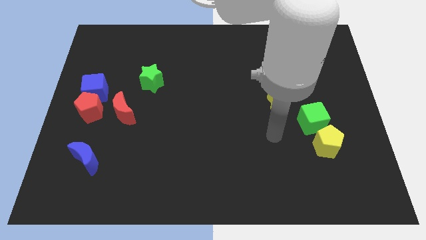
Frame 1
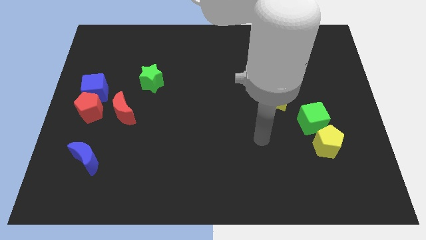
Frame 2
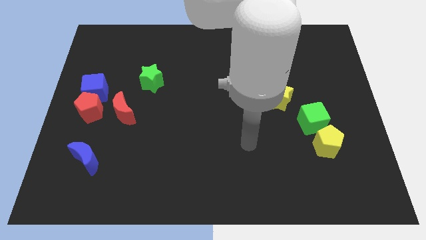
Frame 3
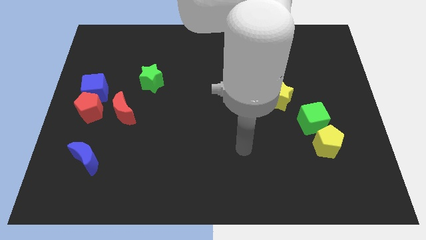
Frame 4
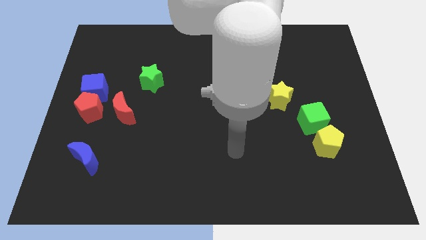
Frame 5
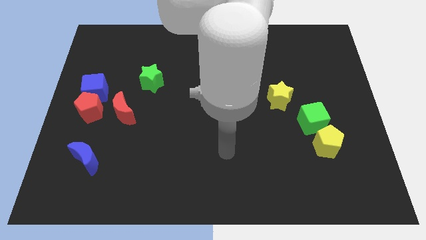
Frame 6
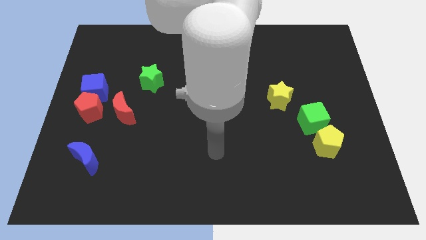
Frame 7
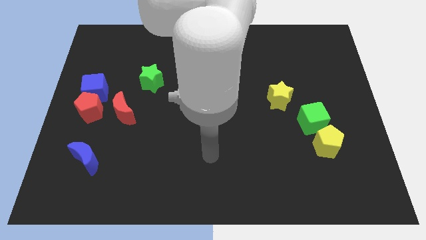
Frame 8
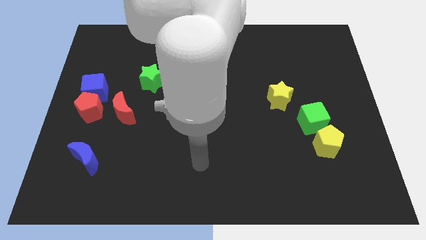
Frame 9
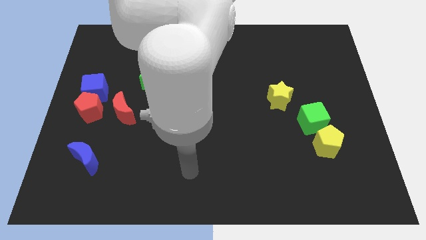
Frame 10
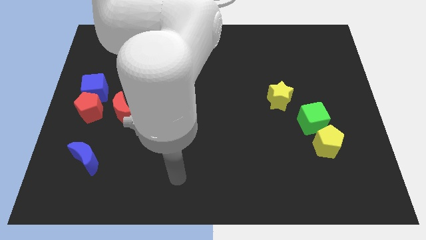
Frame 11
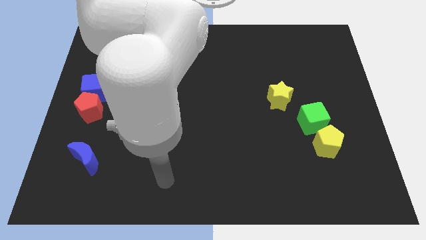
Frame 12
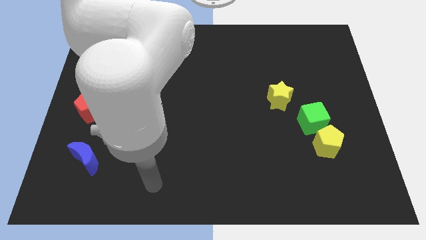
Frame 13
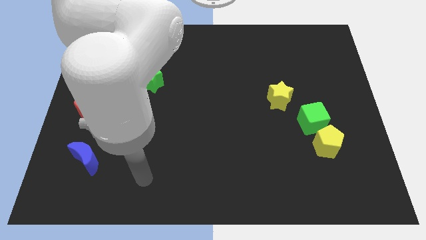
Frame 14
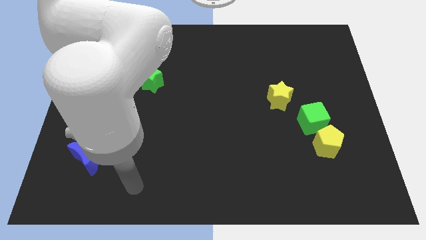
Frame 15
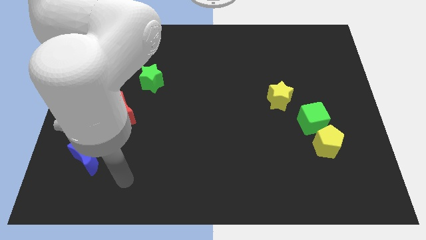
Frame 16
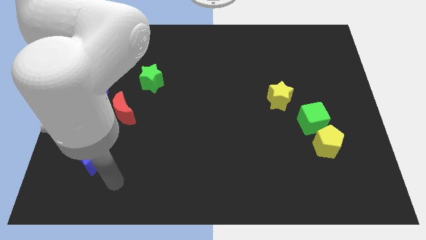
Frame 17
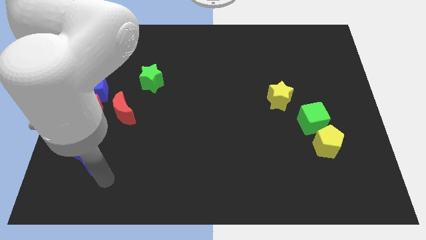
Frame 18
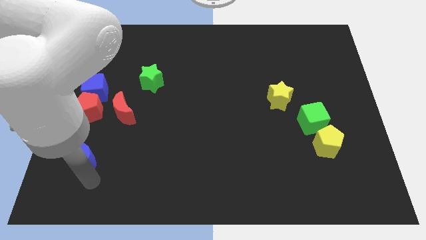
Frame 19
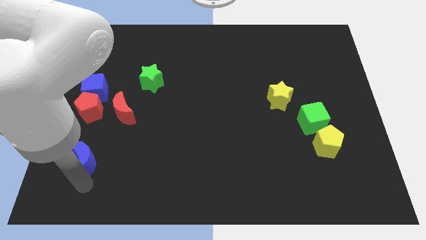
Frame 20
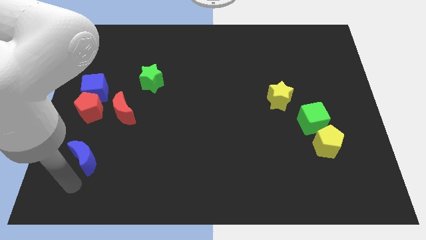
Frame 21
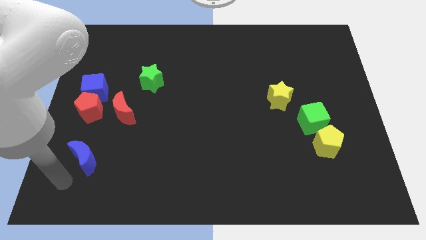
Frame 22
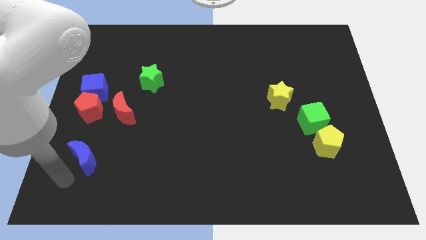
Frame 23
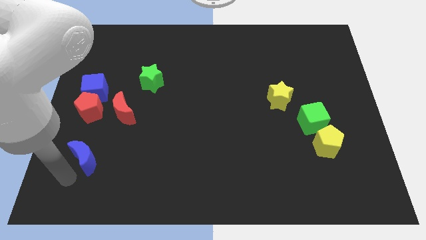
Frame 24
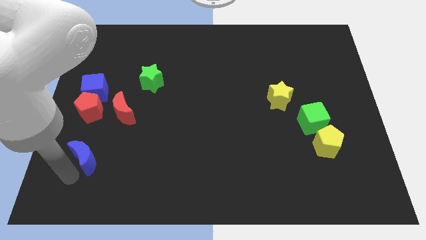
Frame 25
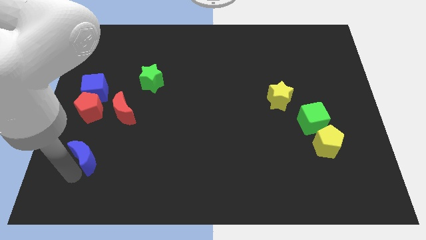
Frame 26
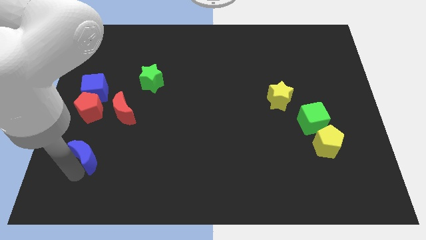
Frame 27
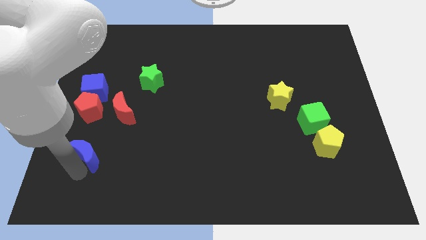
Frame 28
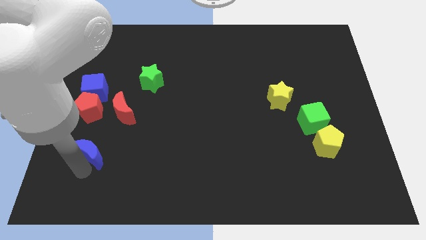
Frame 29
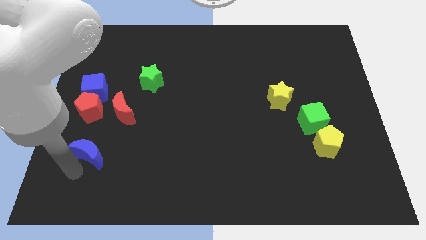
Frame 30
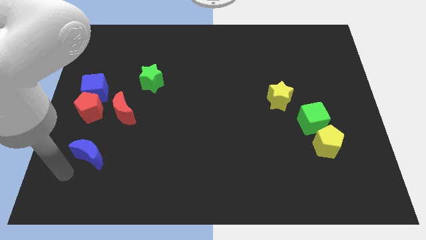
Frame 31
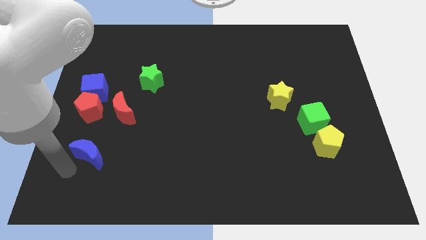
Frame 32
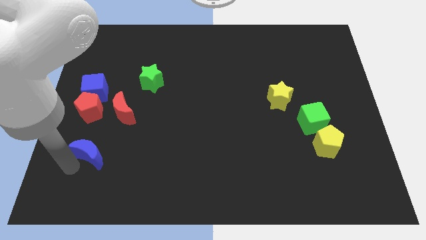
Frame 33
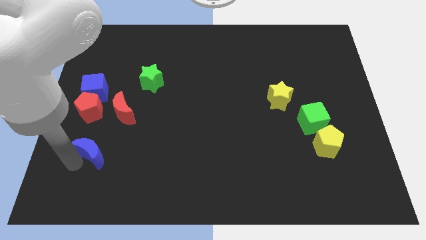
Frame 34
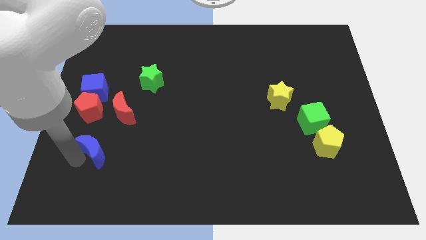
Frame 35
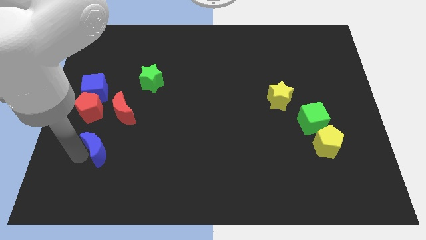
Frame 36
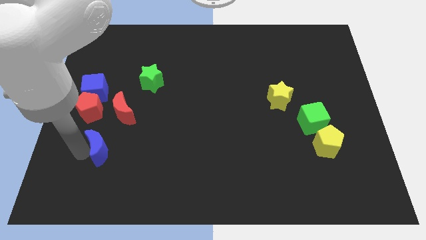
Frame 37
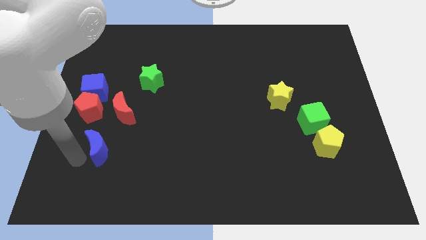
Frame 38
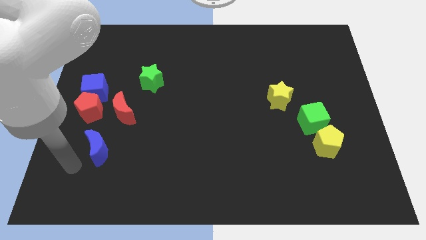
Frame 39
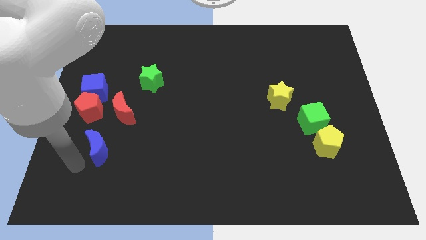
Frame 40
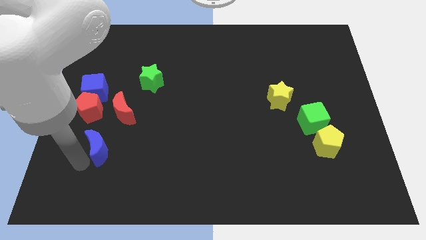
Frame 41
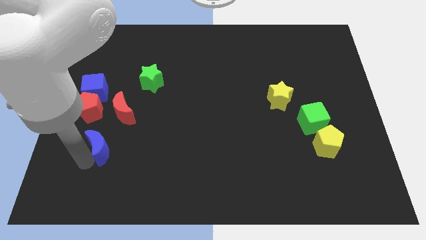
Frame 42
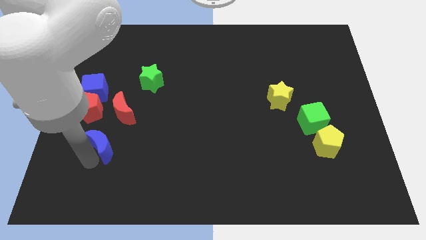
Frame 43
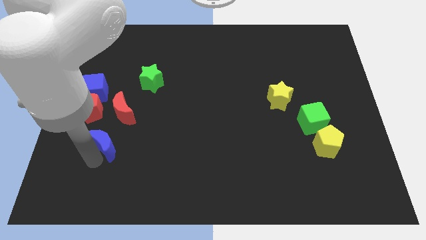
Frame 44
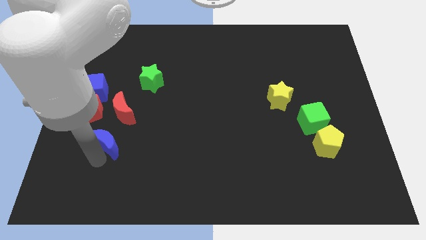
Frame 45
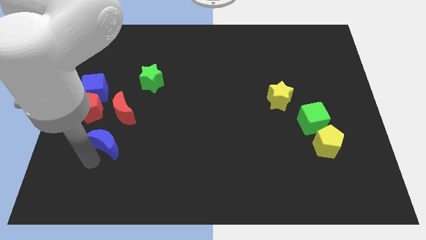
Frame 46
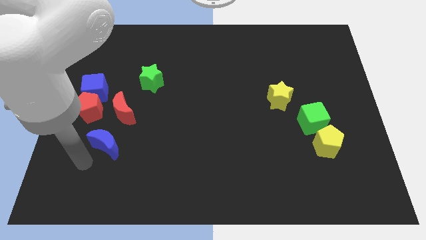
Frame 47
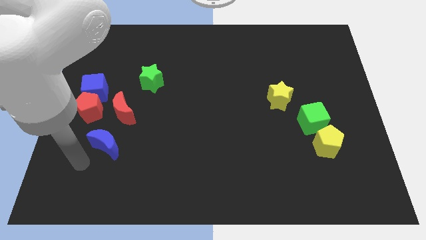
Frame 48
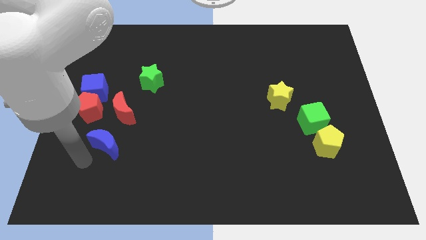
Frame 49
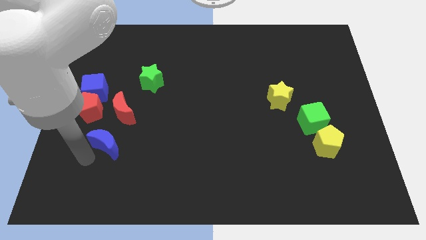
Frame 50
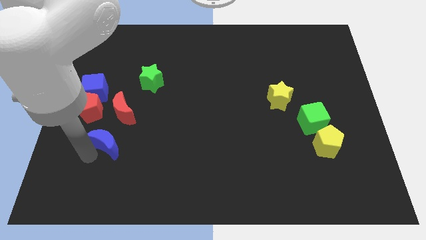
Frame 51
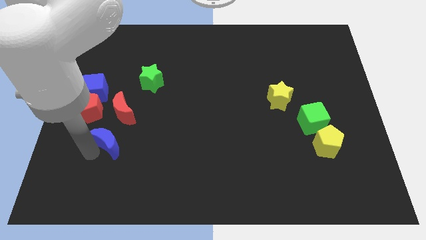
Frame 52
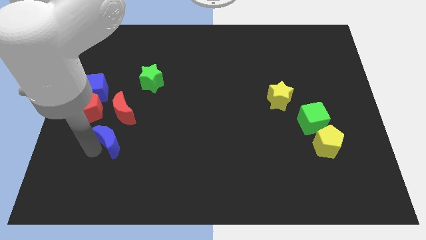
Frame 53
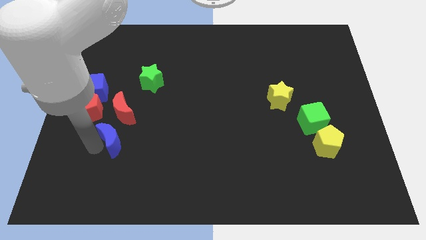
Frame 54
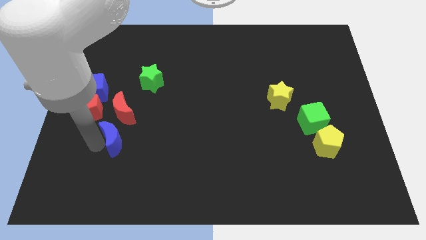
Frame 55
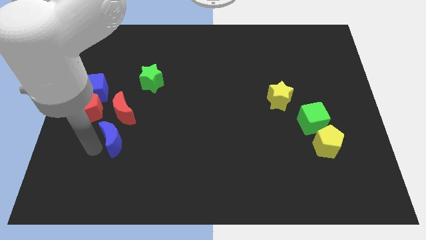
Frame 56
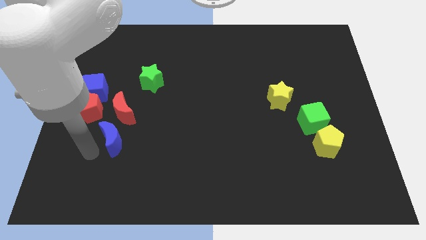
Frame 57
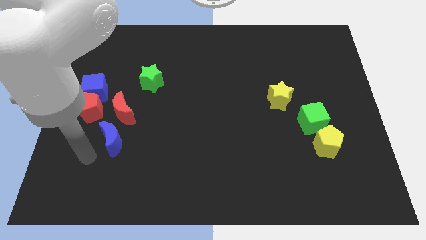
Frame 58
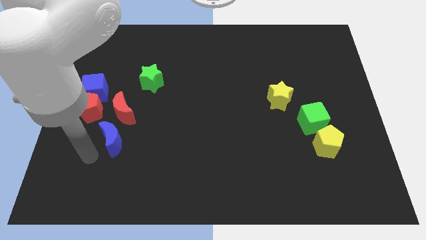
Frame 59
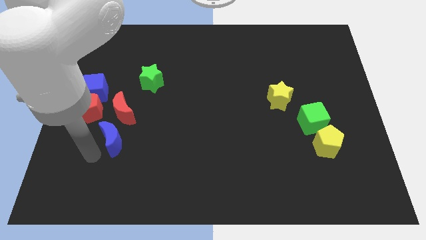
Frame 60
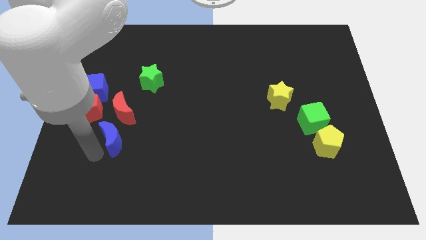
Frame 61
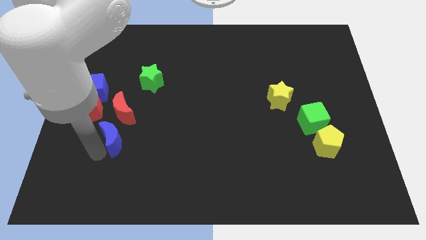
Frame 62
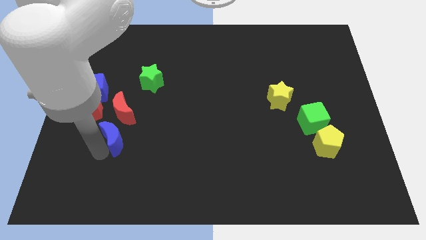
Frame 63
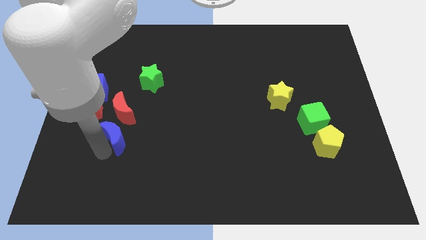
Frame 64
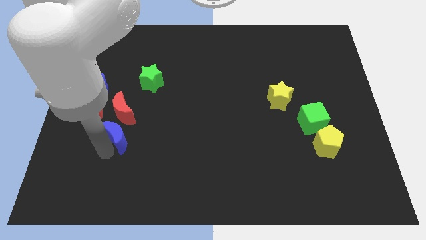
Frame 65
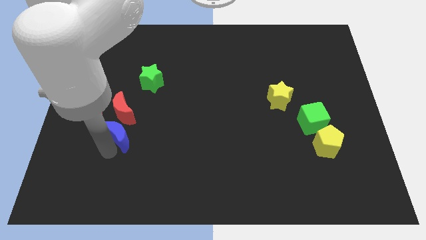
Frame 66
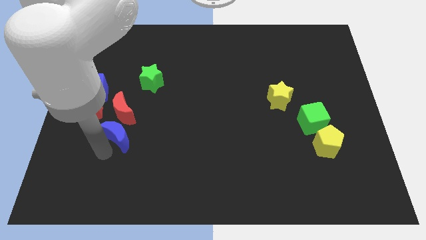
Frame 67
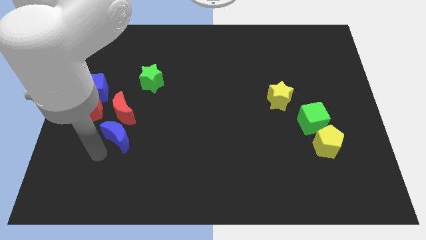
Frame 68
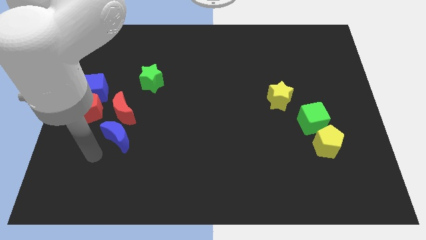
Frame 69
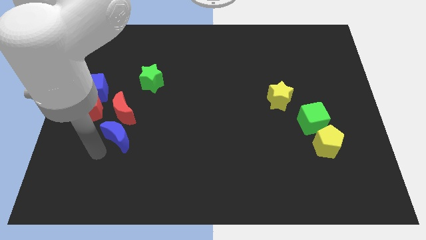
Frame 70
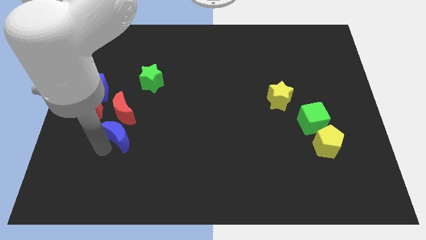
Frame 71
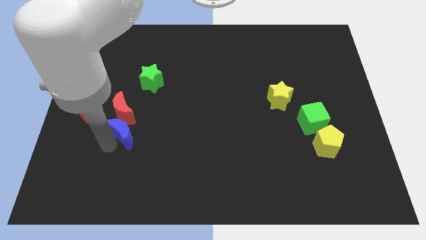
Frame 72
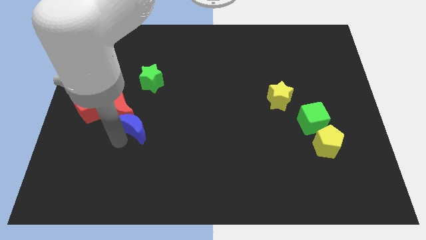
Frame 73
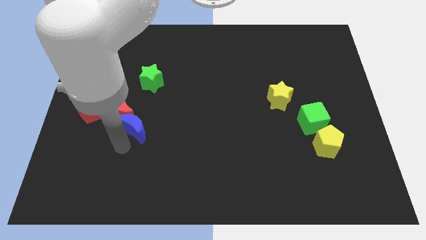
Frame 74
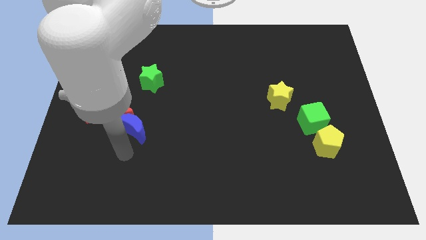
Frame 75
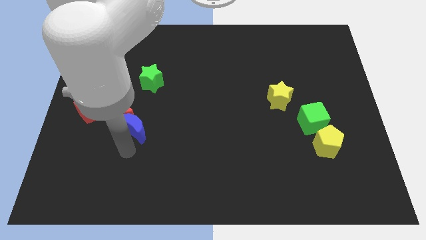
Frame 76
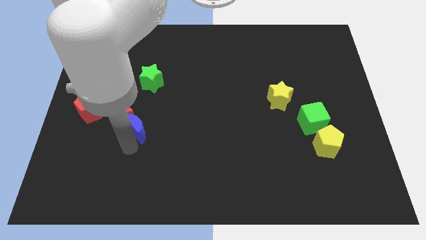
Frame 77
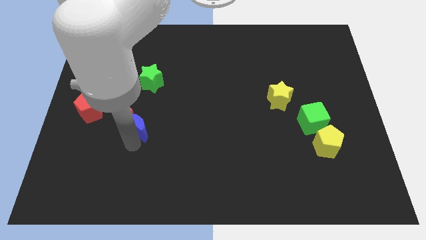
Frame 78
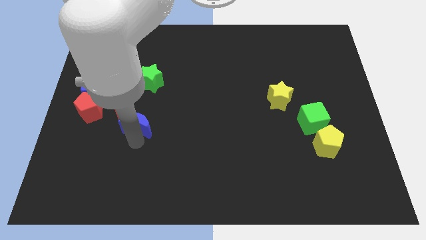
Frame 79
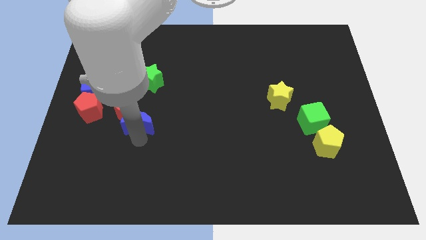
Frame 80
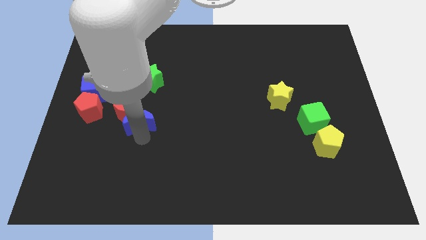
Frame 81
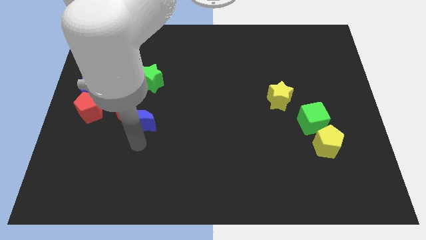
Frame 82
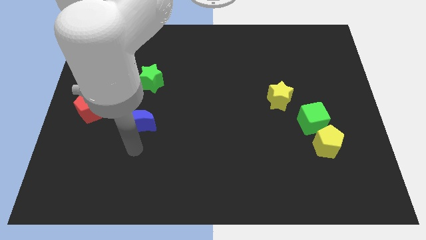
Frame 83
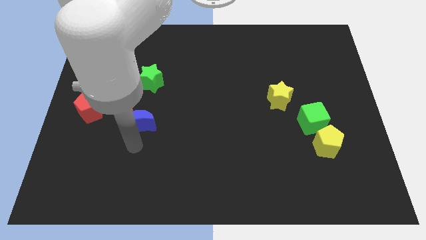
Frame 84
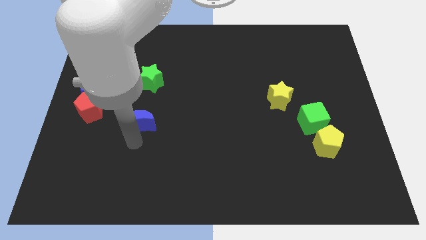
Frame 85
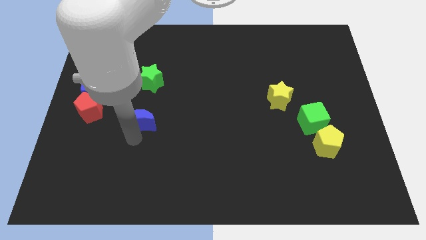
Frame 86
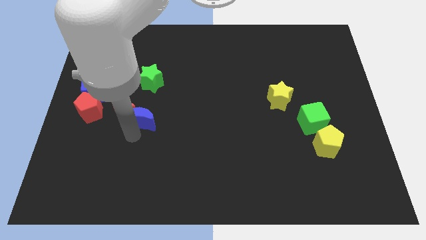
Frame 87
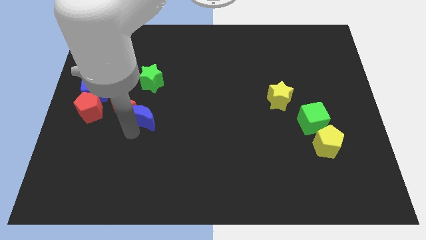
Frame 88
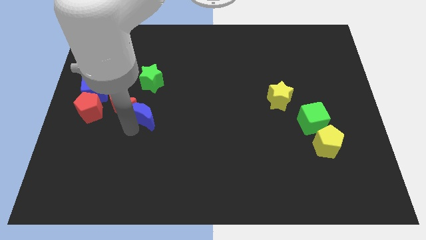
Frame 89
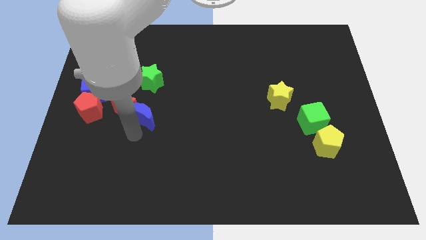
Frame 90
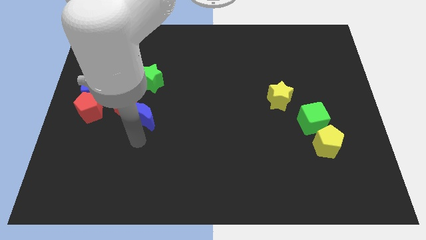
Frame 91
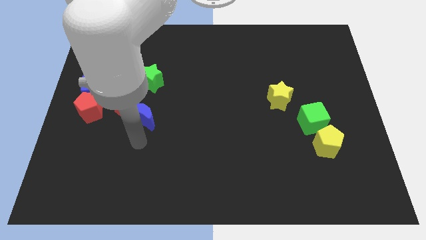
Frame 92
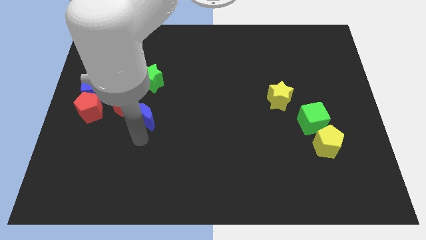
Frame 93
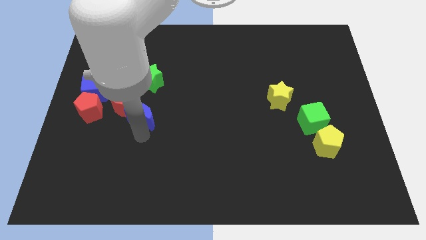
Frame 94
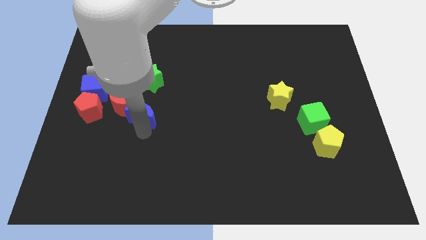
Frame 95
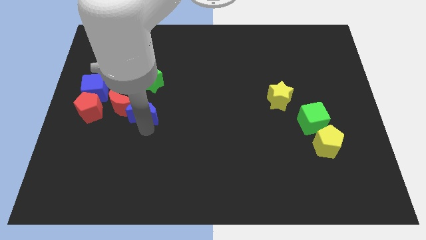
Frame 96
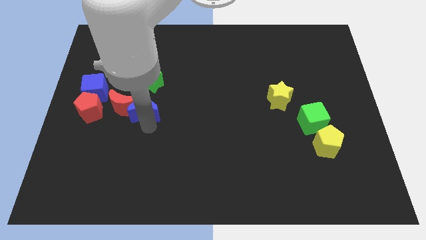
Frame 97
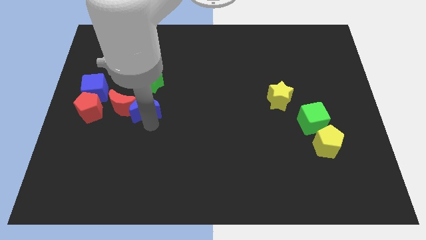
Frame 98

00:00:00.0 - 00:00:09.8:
slide the blue moon to the top right of the red moon
